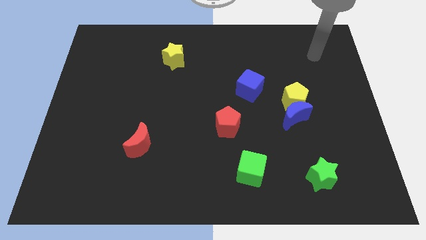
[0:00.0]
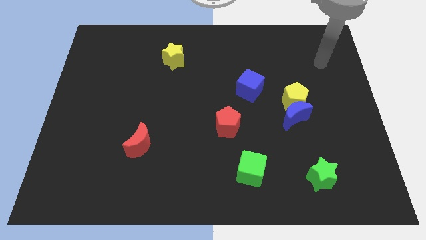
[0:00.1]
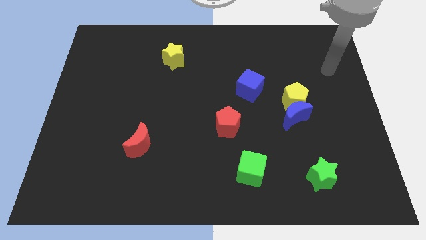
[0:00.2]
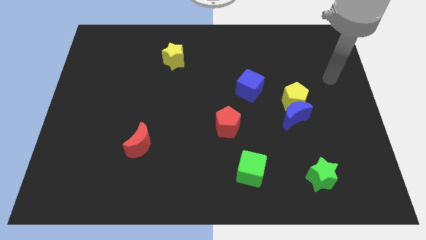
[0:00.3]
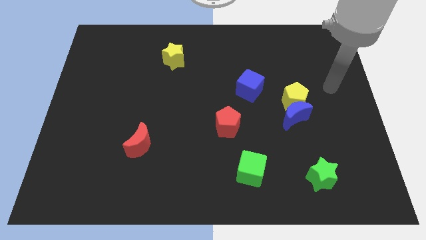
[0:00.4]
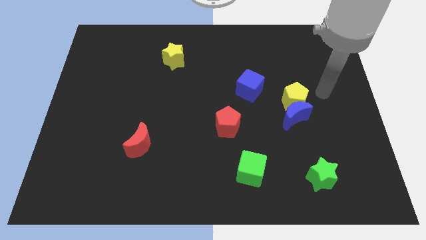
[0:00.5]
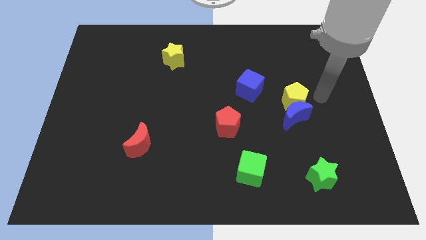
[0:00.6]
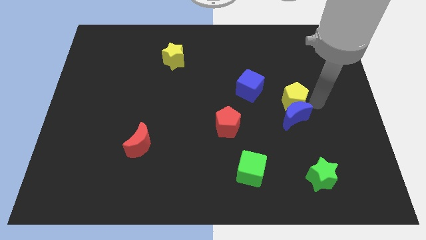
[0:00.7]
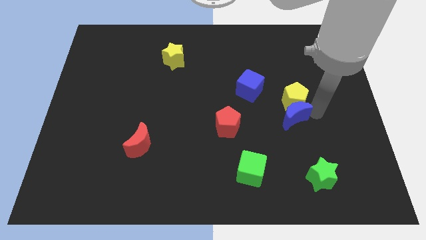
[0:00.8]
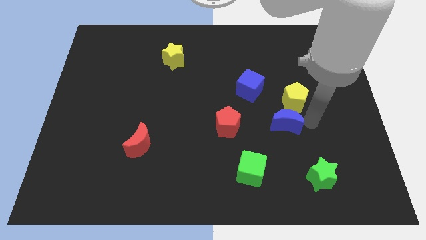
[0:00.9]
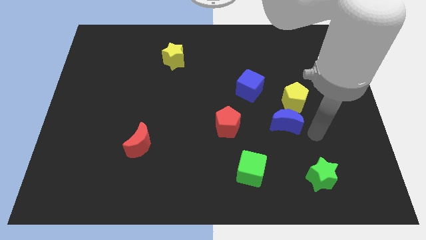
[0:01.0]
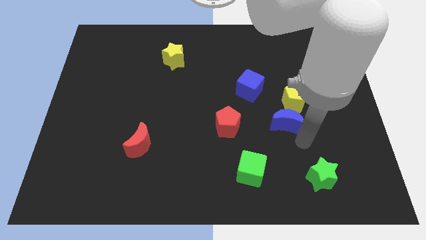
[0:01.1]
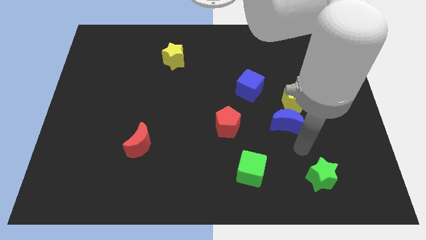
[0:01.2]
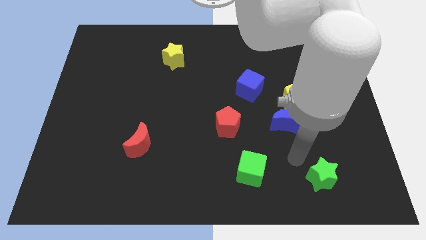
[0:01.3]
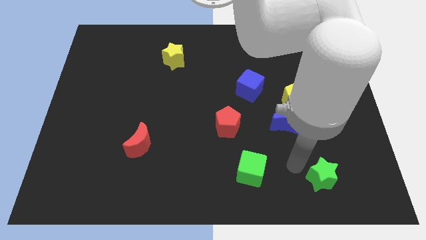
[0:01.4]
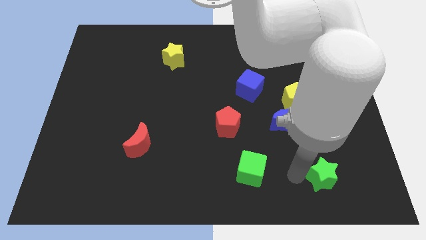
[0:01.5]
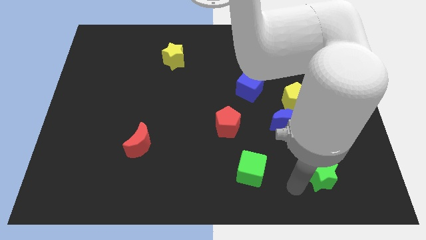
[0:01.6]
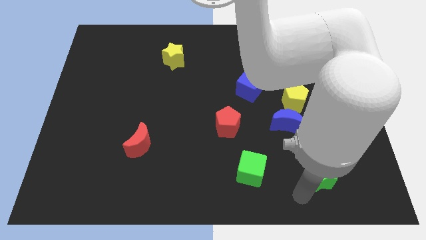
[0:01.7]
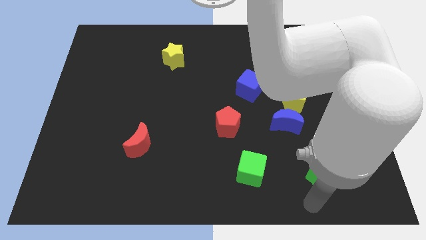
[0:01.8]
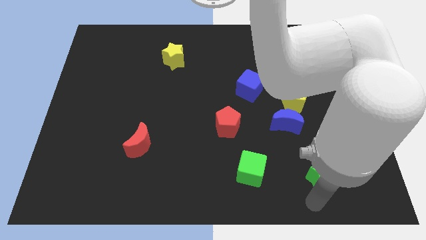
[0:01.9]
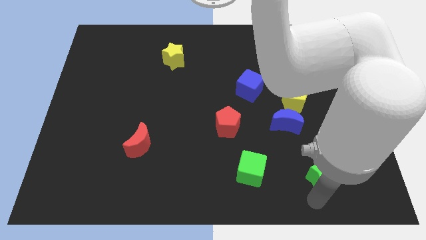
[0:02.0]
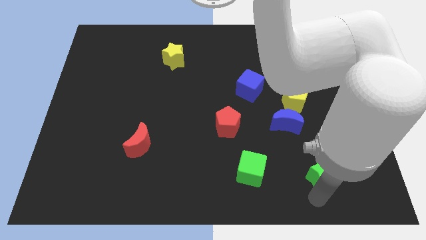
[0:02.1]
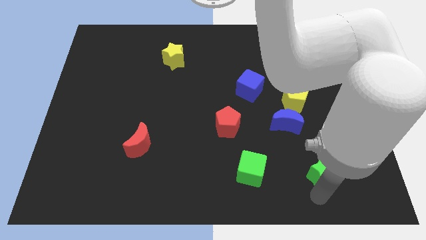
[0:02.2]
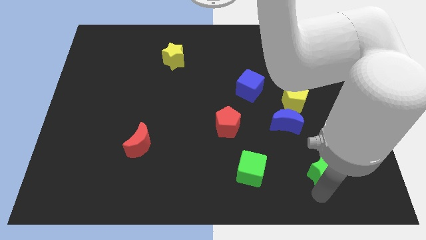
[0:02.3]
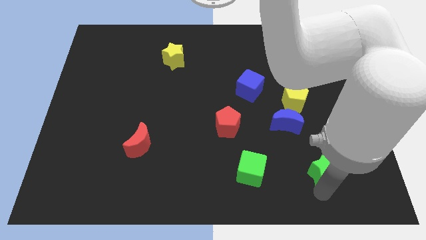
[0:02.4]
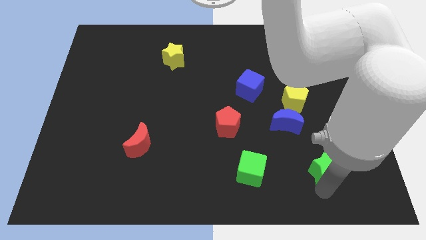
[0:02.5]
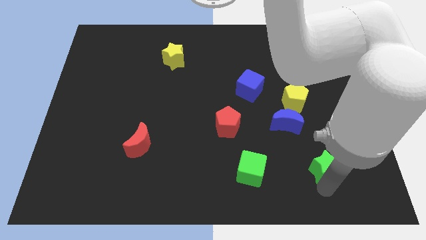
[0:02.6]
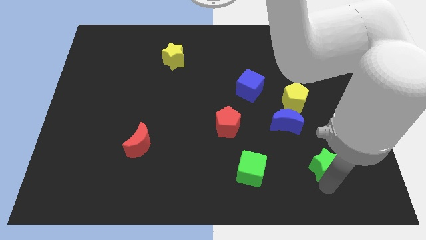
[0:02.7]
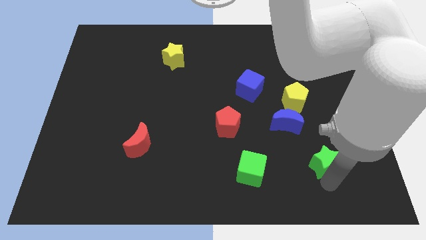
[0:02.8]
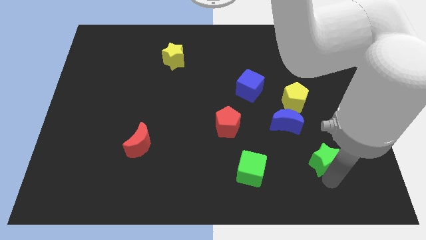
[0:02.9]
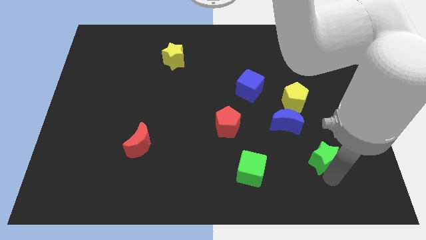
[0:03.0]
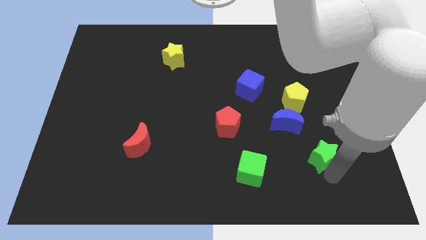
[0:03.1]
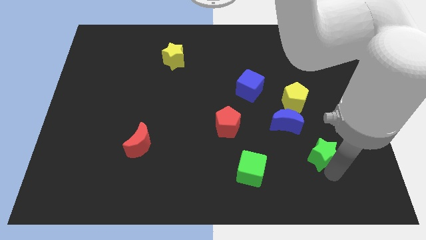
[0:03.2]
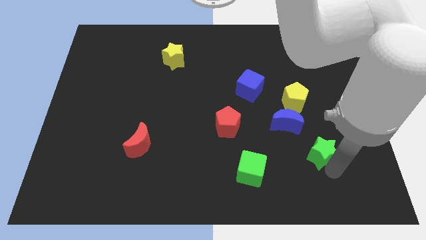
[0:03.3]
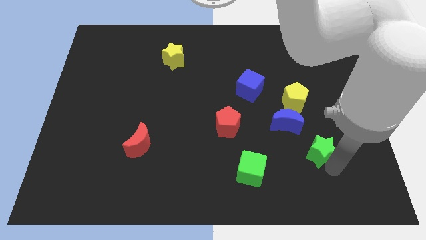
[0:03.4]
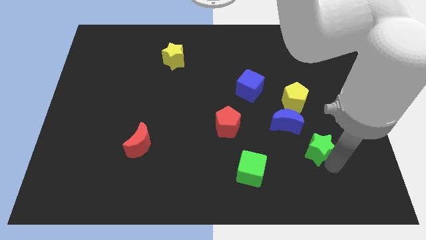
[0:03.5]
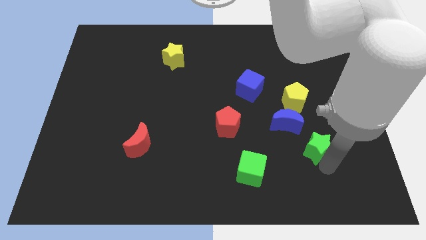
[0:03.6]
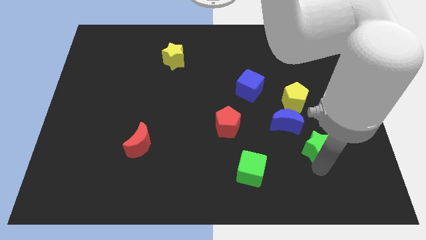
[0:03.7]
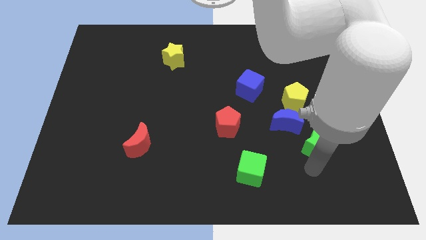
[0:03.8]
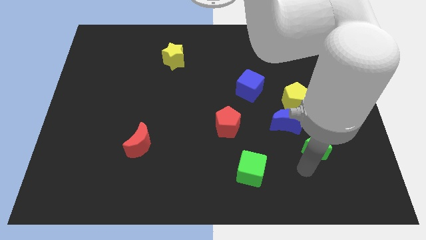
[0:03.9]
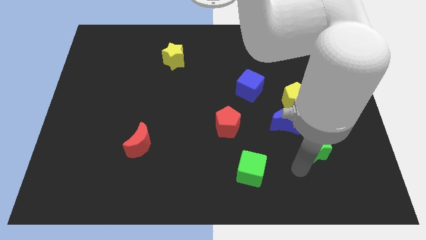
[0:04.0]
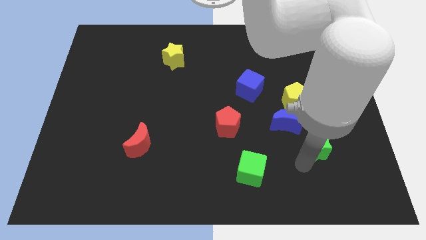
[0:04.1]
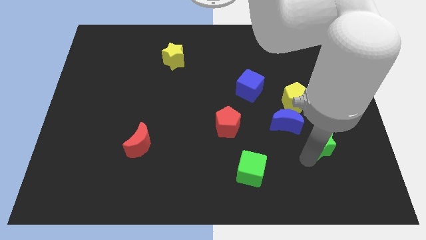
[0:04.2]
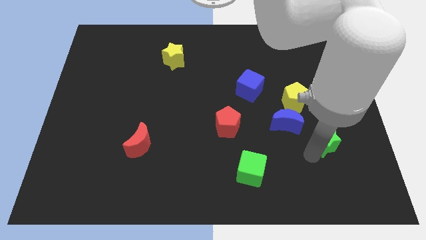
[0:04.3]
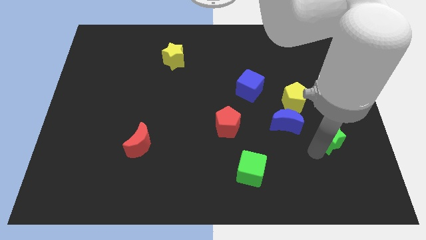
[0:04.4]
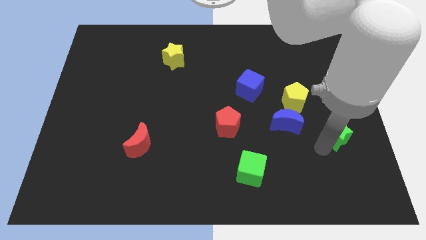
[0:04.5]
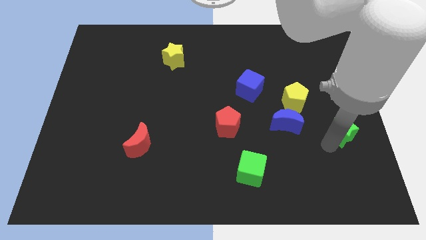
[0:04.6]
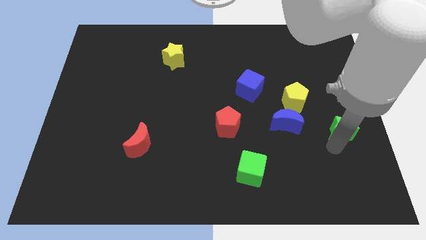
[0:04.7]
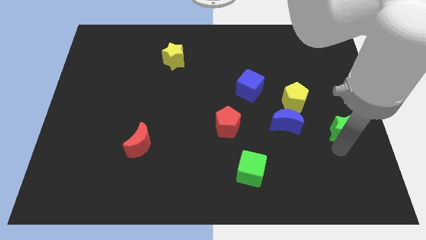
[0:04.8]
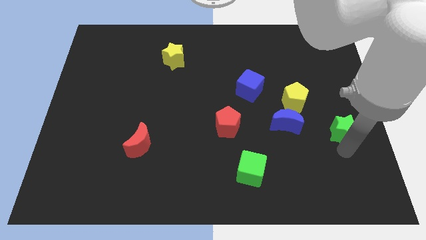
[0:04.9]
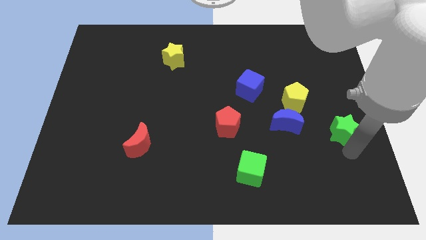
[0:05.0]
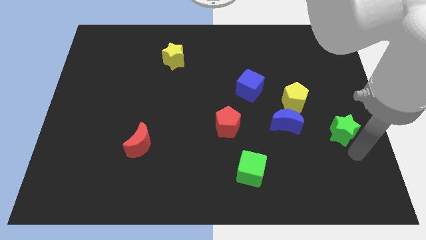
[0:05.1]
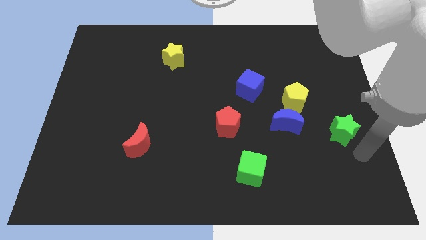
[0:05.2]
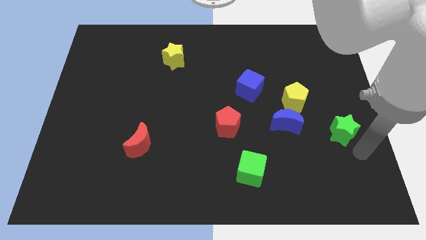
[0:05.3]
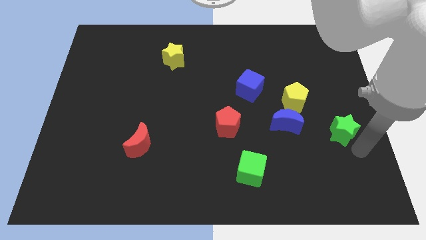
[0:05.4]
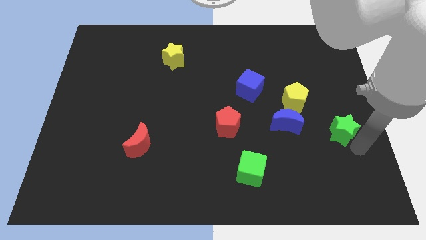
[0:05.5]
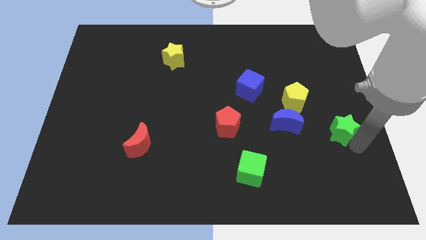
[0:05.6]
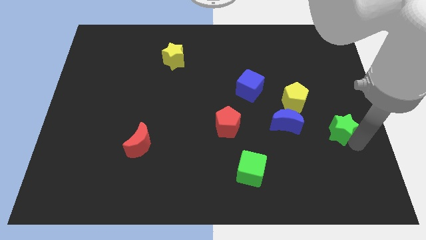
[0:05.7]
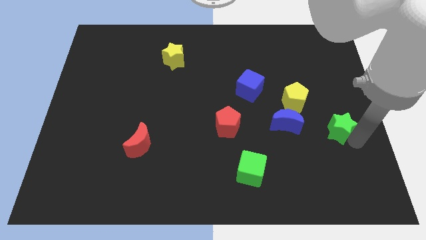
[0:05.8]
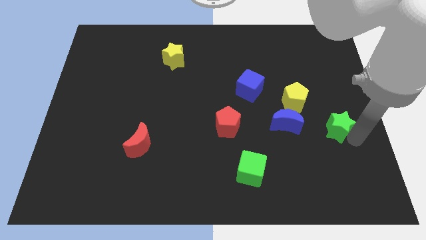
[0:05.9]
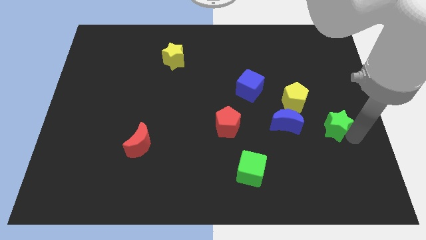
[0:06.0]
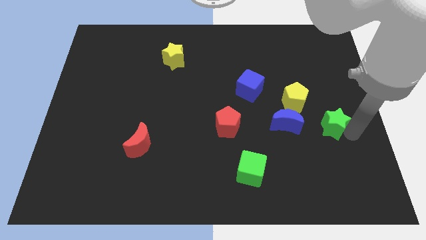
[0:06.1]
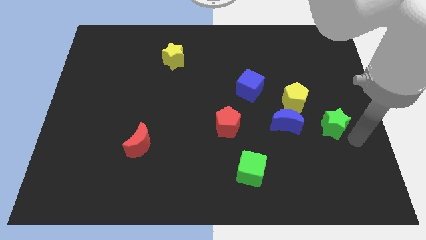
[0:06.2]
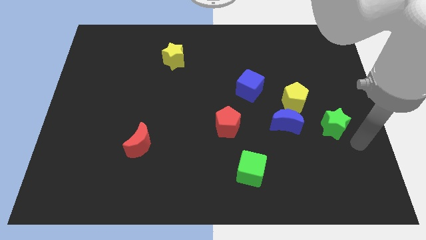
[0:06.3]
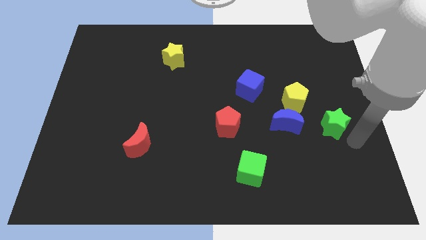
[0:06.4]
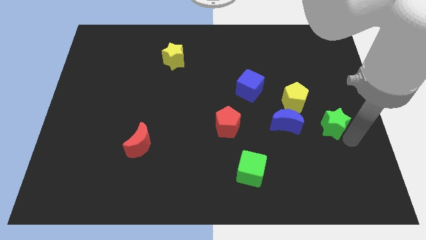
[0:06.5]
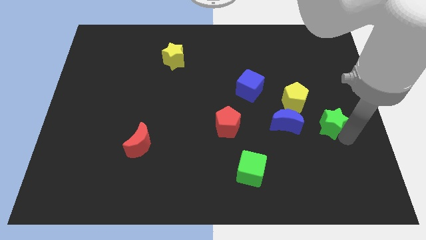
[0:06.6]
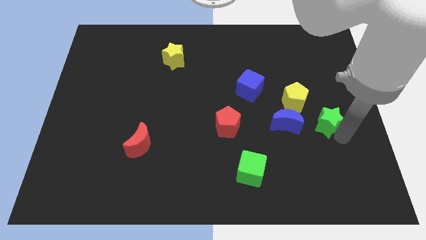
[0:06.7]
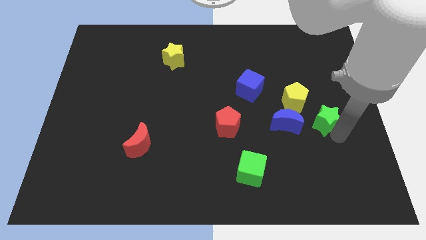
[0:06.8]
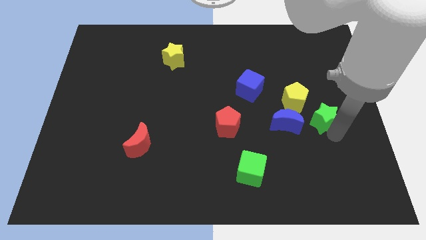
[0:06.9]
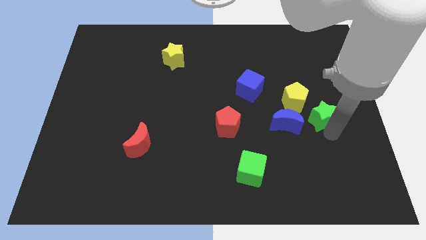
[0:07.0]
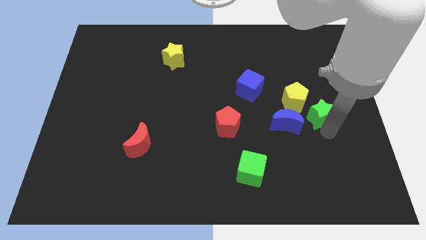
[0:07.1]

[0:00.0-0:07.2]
move the green star to the top right of the blue moon
